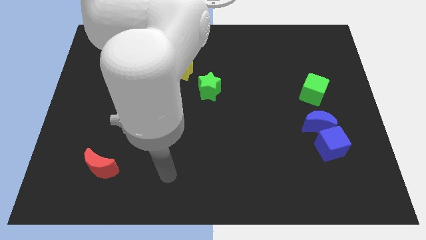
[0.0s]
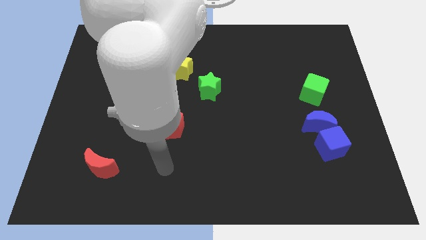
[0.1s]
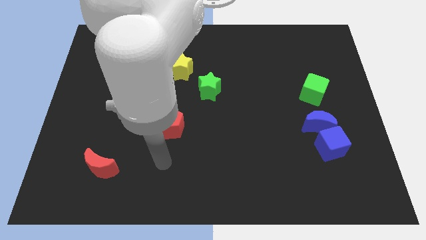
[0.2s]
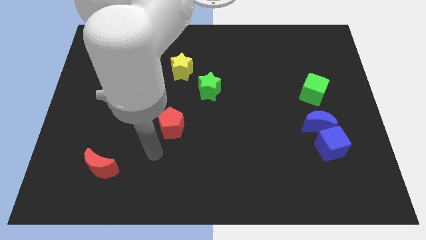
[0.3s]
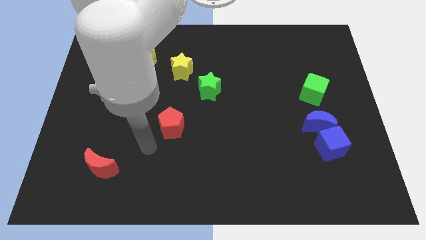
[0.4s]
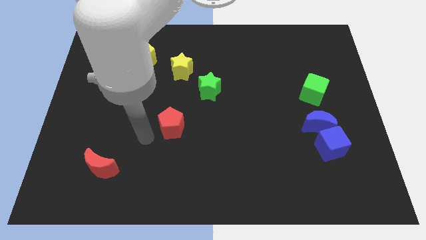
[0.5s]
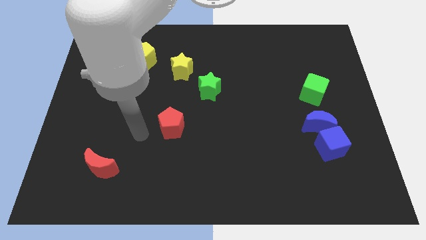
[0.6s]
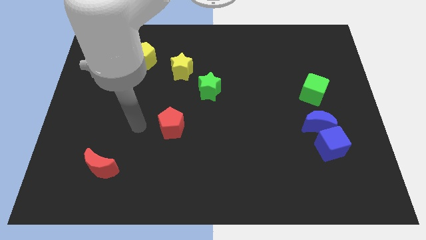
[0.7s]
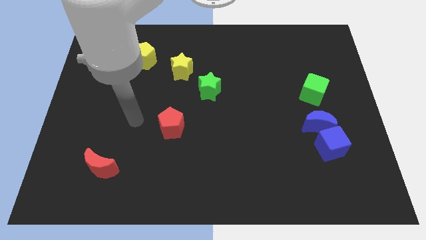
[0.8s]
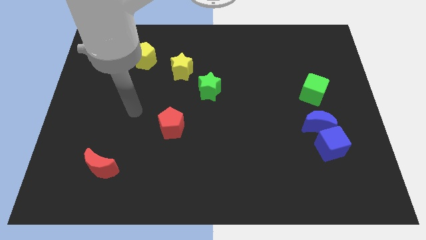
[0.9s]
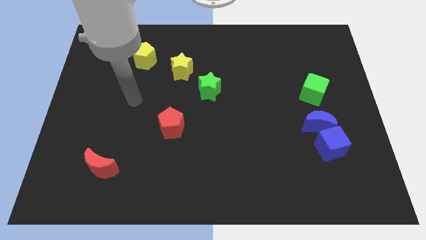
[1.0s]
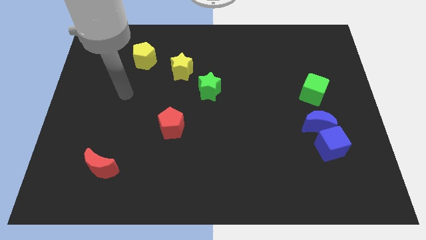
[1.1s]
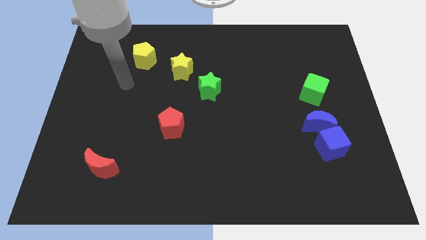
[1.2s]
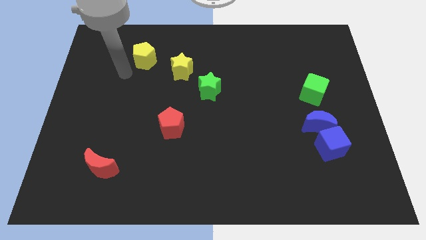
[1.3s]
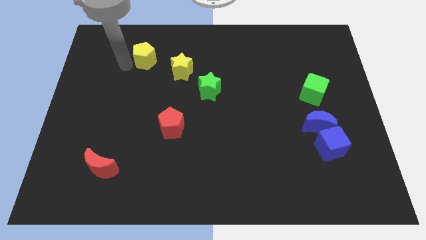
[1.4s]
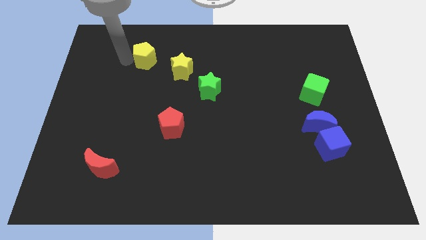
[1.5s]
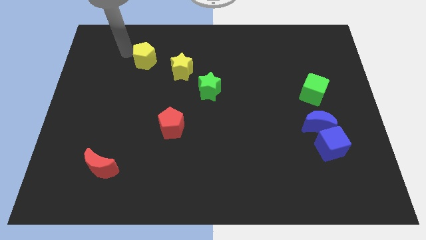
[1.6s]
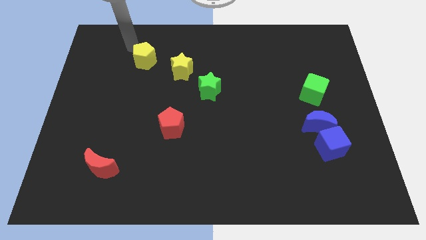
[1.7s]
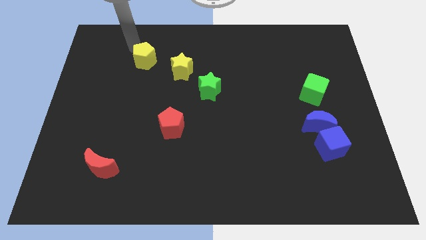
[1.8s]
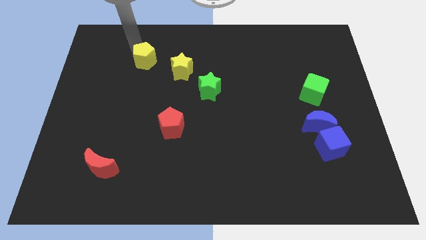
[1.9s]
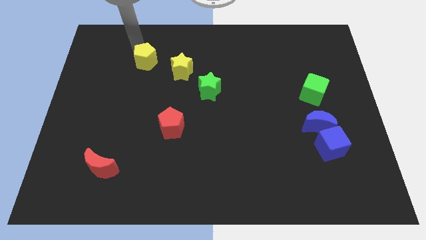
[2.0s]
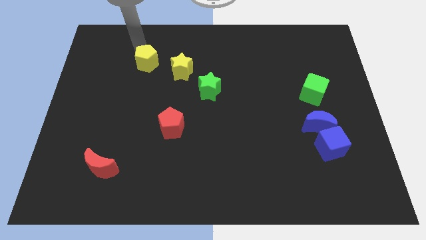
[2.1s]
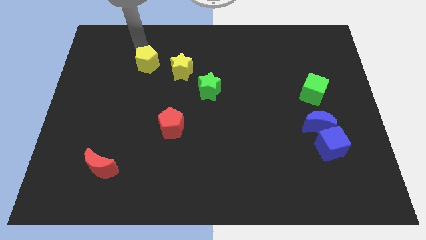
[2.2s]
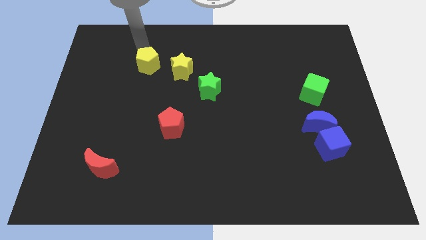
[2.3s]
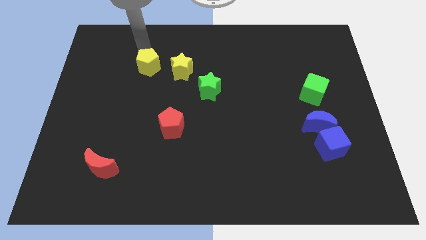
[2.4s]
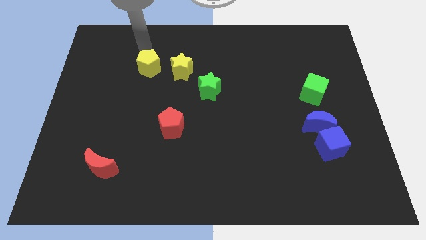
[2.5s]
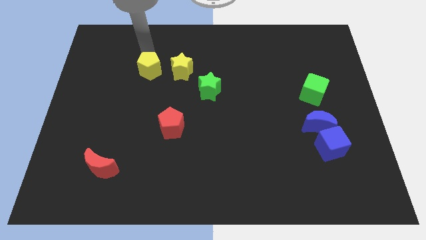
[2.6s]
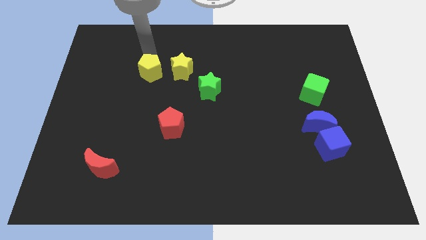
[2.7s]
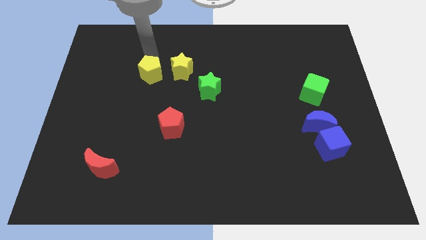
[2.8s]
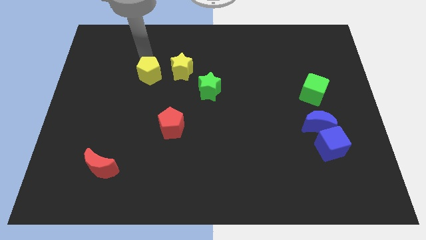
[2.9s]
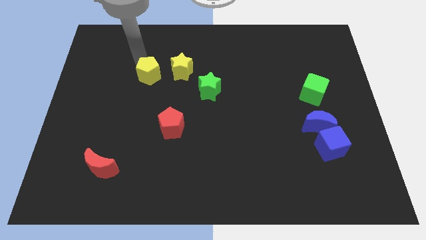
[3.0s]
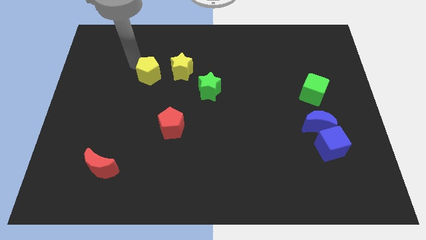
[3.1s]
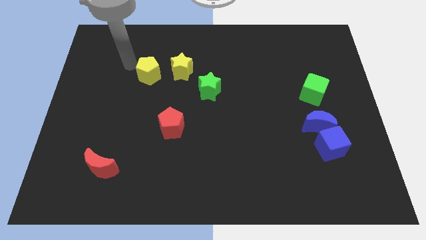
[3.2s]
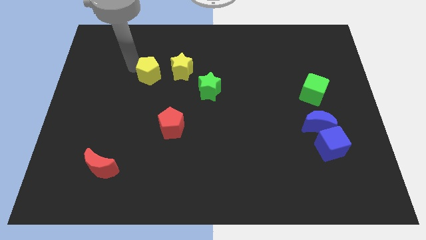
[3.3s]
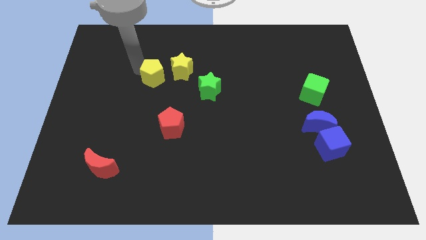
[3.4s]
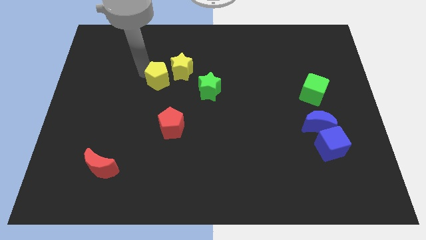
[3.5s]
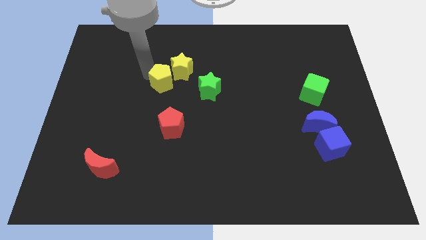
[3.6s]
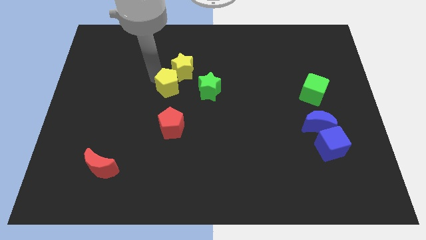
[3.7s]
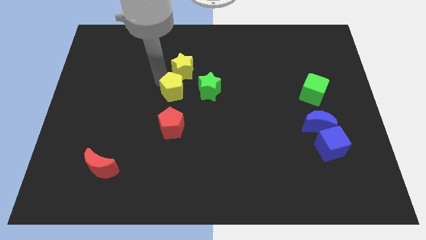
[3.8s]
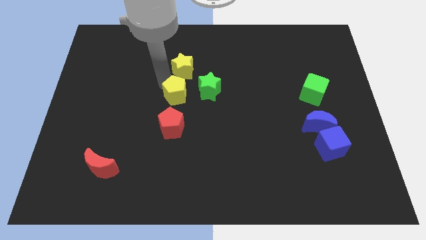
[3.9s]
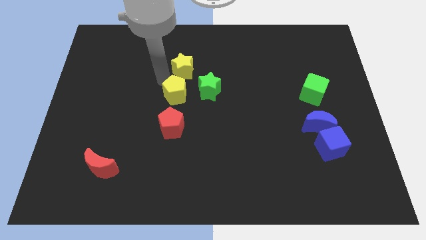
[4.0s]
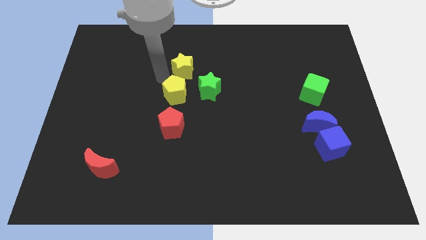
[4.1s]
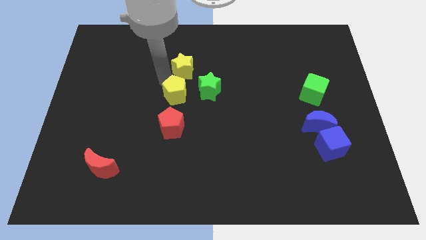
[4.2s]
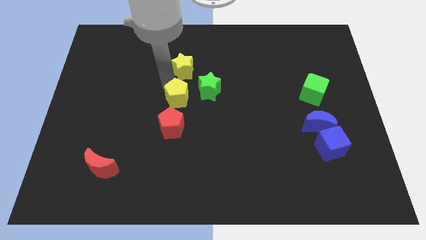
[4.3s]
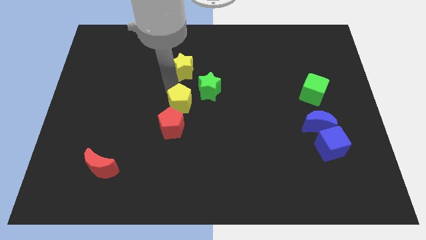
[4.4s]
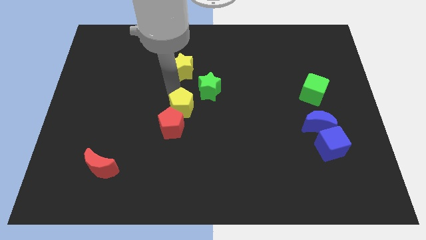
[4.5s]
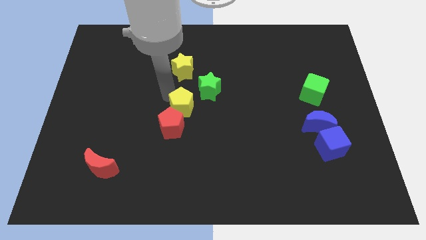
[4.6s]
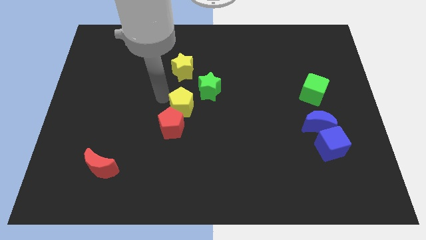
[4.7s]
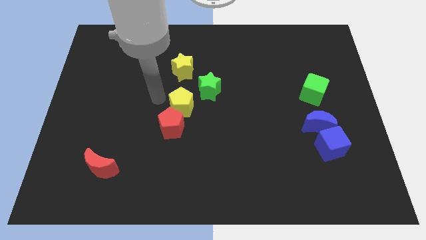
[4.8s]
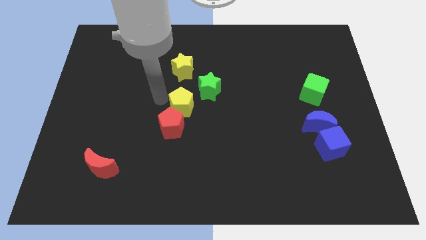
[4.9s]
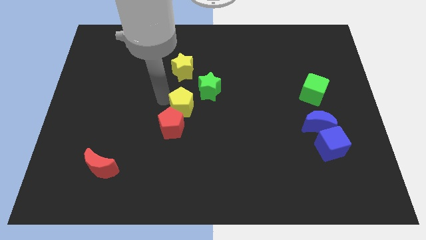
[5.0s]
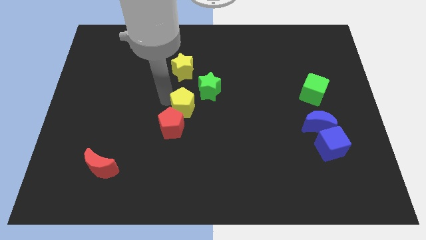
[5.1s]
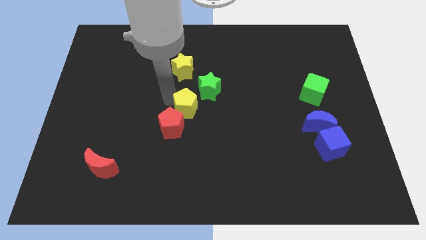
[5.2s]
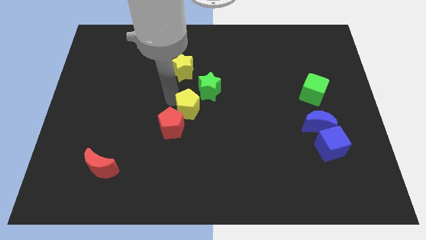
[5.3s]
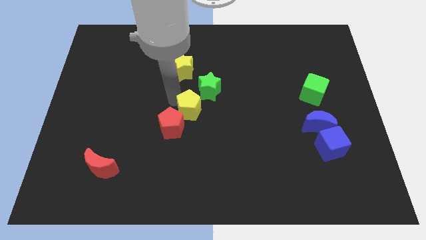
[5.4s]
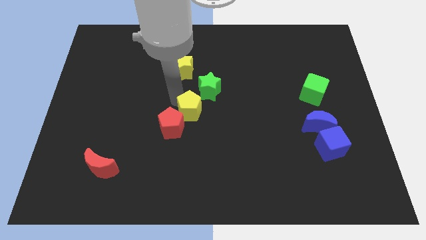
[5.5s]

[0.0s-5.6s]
move the yellow pentagon to the right of the red pentagon

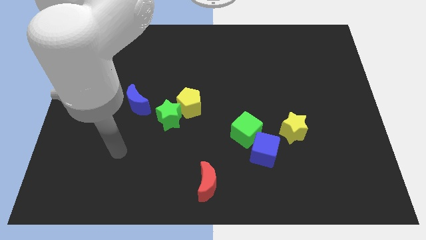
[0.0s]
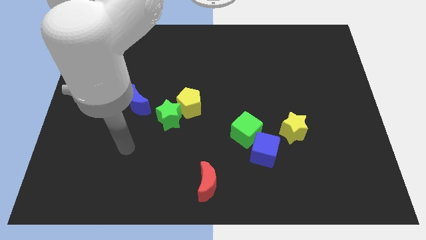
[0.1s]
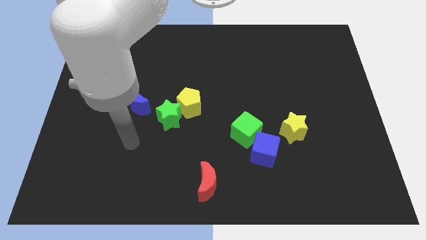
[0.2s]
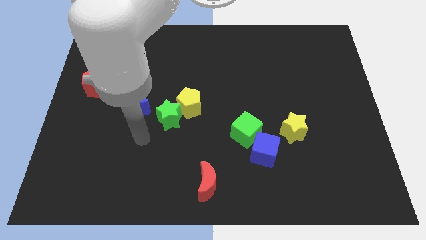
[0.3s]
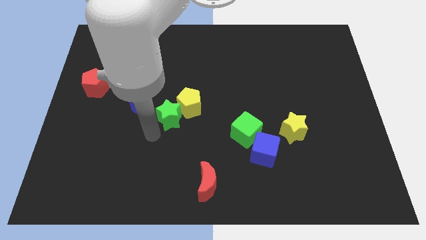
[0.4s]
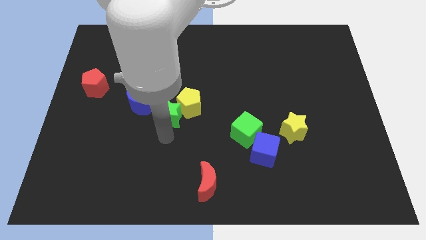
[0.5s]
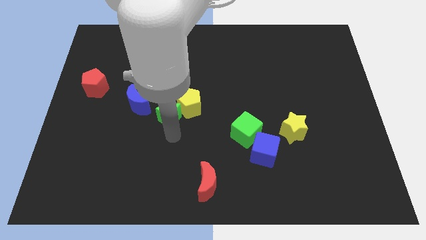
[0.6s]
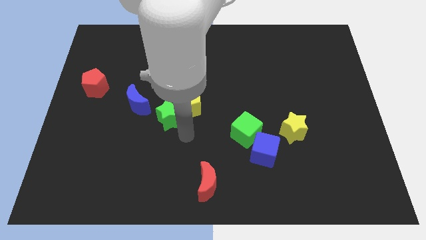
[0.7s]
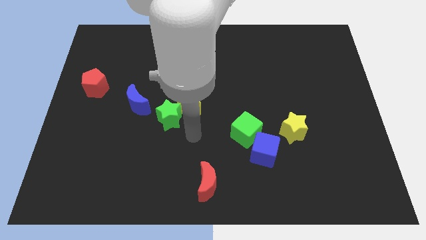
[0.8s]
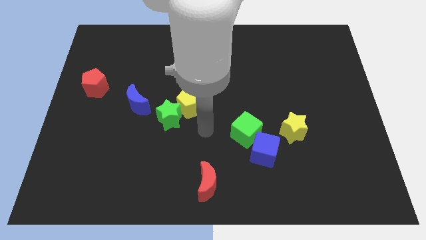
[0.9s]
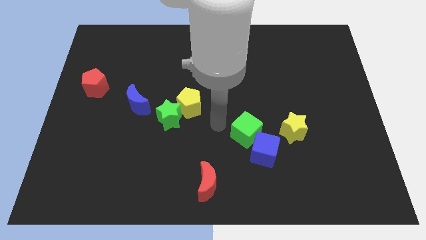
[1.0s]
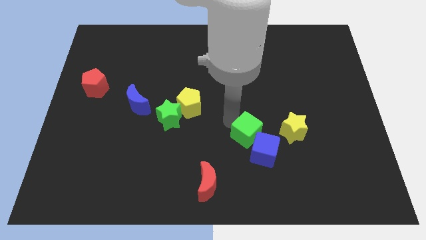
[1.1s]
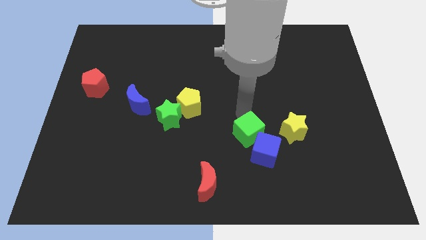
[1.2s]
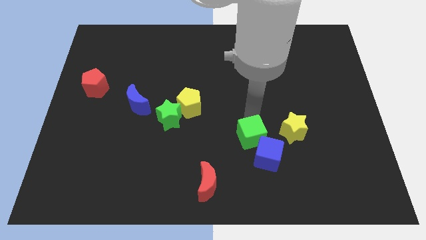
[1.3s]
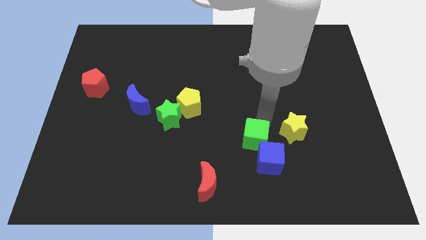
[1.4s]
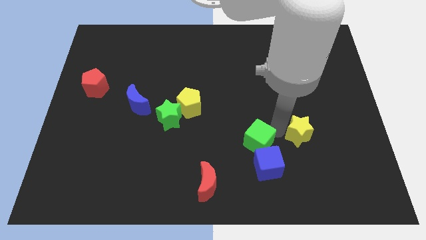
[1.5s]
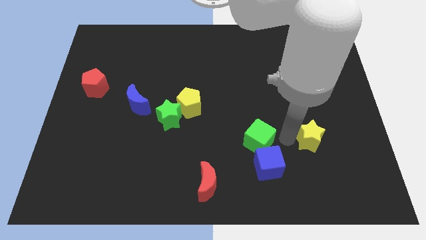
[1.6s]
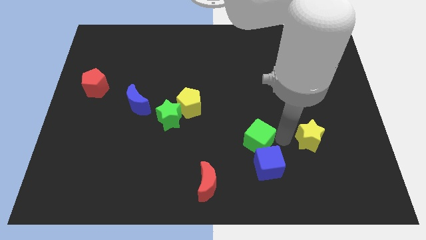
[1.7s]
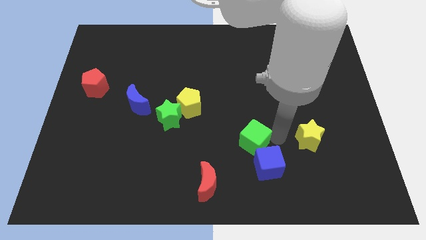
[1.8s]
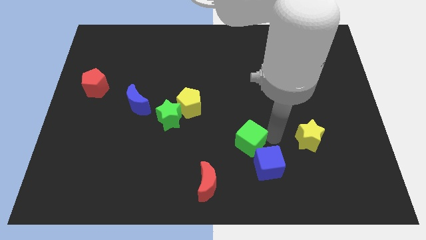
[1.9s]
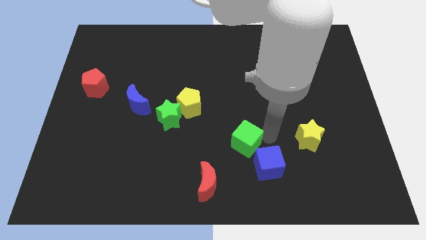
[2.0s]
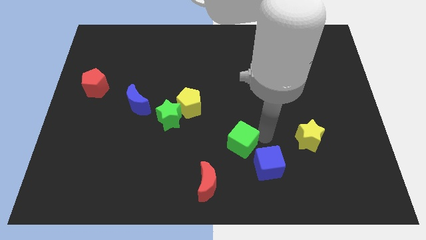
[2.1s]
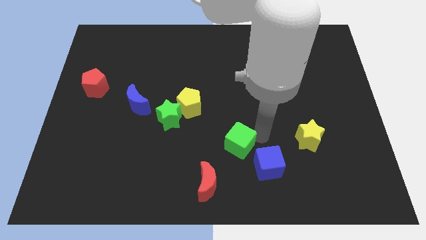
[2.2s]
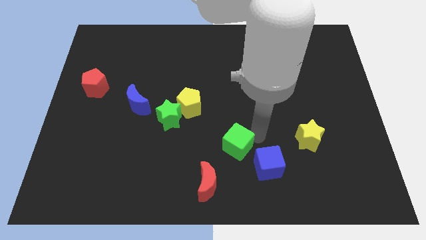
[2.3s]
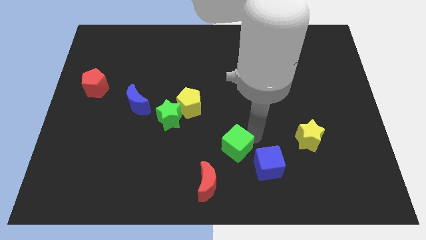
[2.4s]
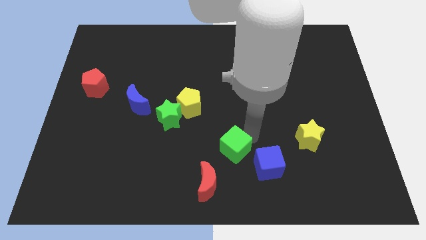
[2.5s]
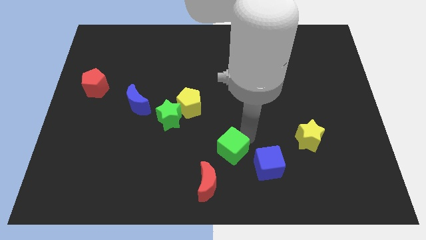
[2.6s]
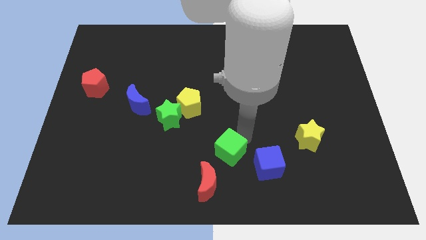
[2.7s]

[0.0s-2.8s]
push the green cube to the top side of the red moon
